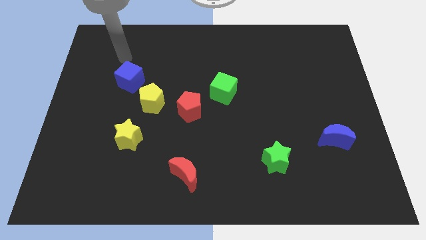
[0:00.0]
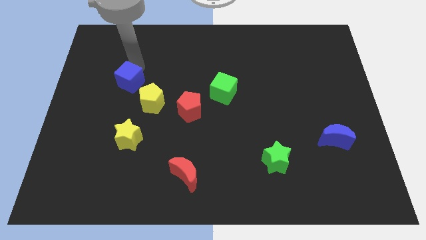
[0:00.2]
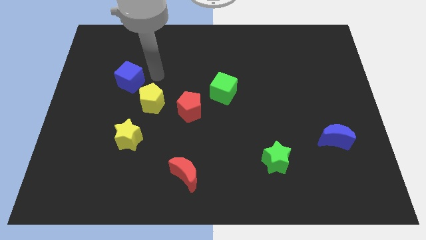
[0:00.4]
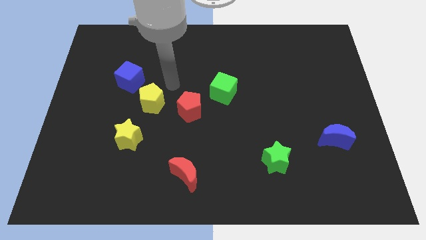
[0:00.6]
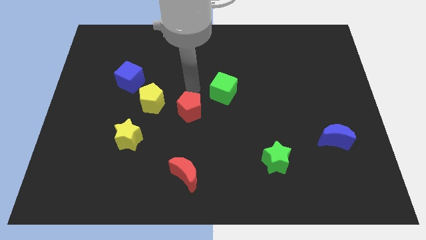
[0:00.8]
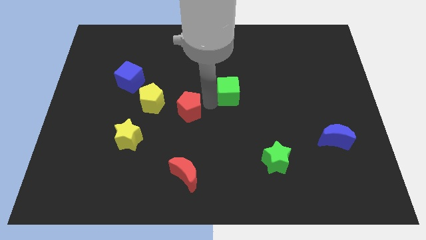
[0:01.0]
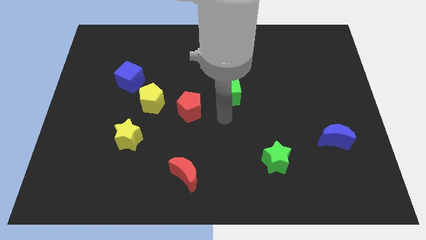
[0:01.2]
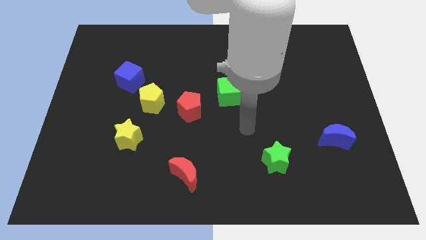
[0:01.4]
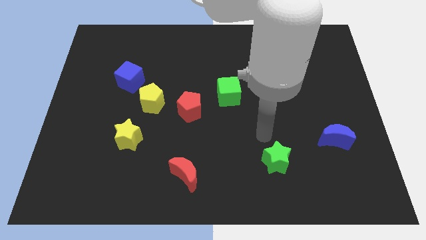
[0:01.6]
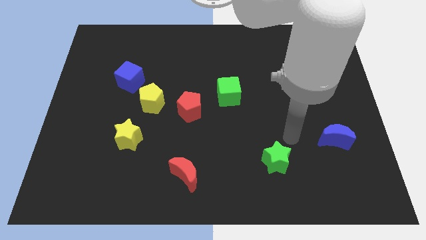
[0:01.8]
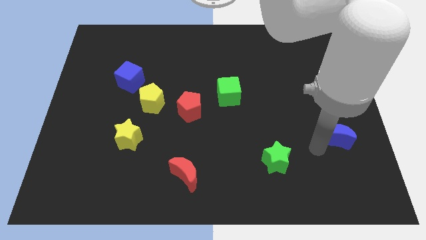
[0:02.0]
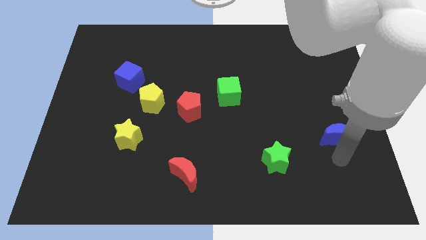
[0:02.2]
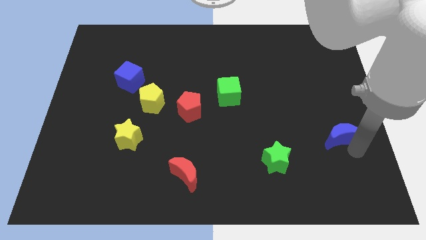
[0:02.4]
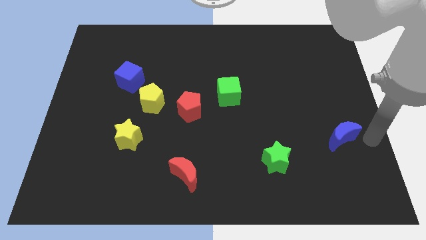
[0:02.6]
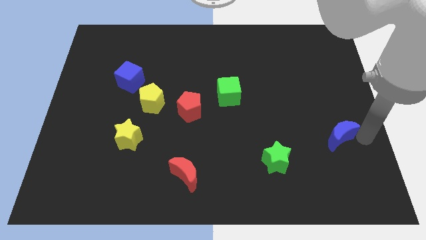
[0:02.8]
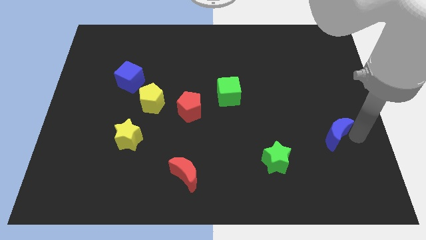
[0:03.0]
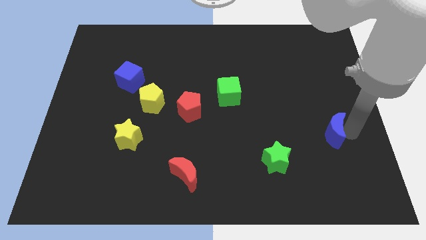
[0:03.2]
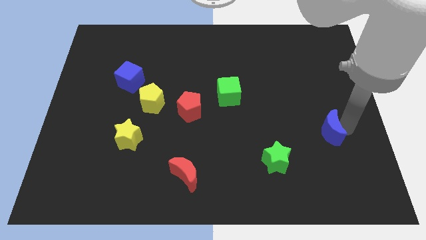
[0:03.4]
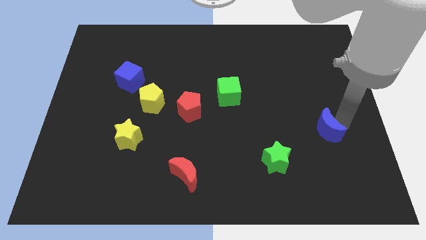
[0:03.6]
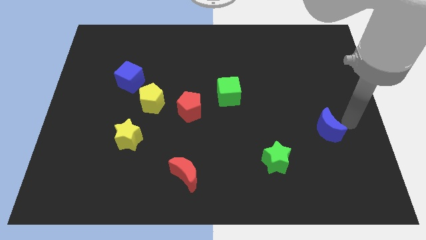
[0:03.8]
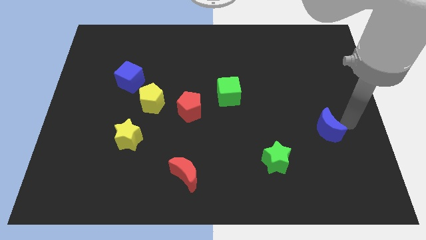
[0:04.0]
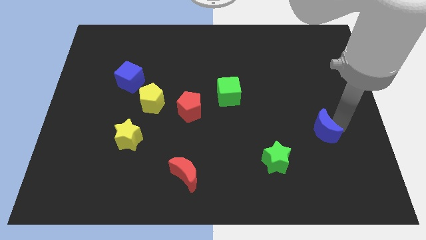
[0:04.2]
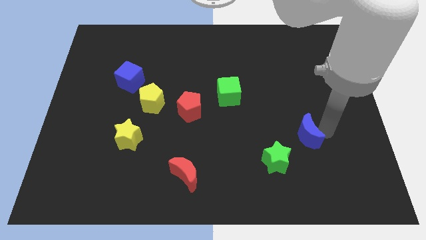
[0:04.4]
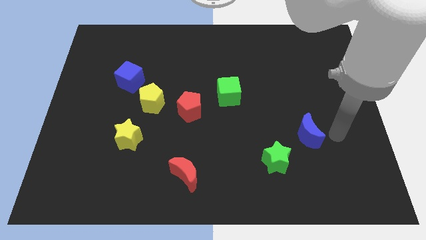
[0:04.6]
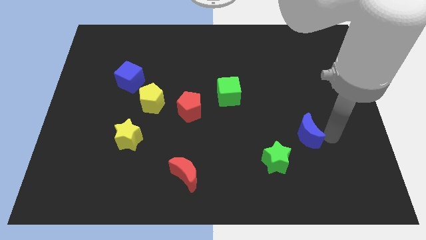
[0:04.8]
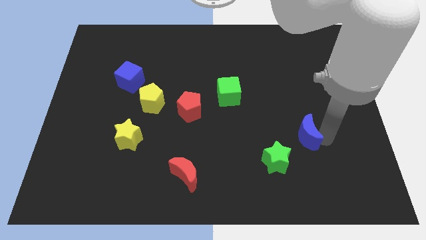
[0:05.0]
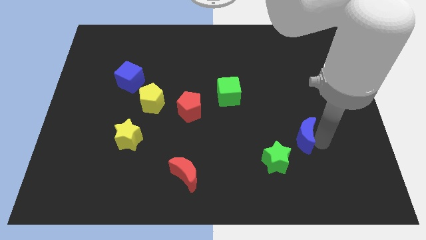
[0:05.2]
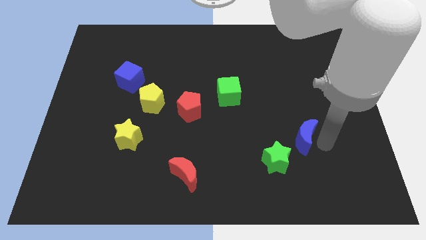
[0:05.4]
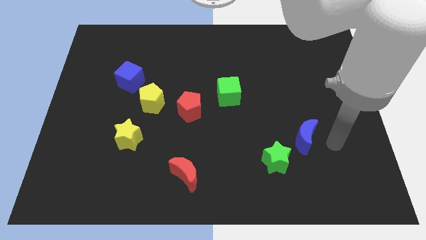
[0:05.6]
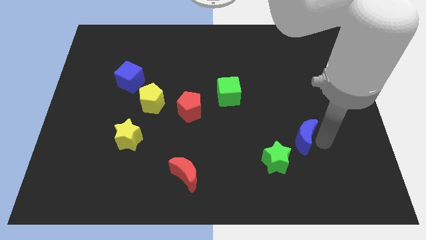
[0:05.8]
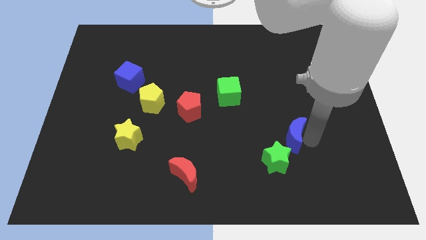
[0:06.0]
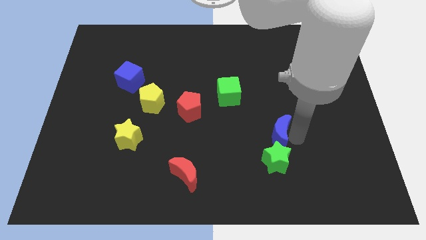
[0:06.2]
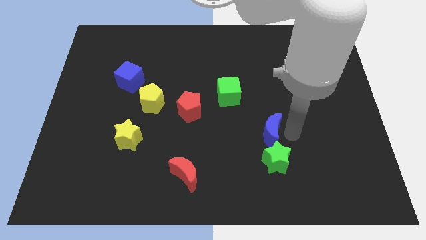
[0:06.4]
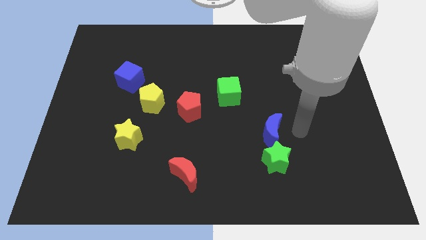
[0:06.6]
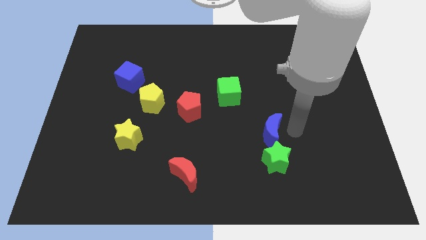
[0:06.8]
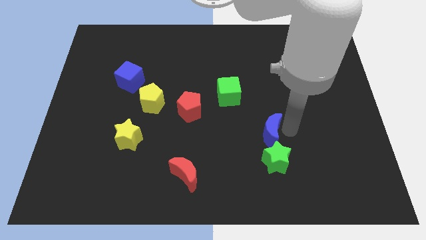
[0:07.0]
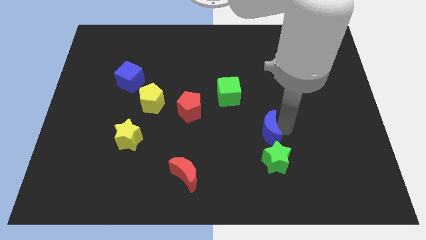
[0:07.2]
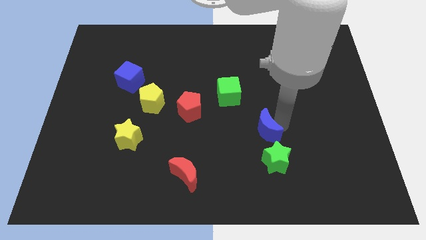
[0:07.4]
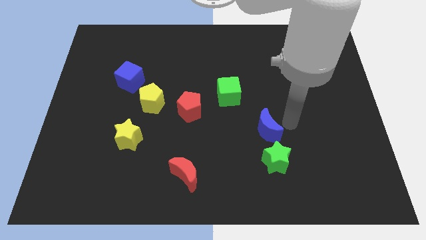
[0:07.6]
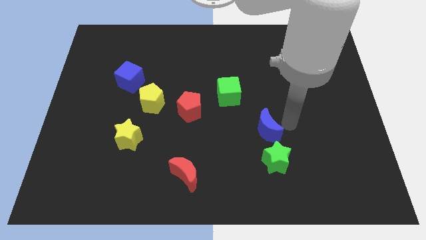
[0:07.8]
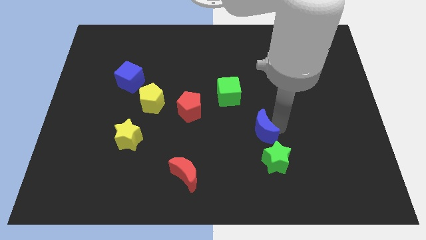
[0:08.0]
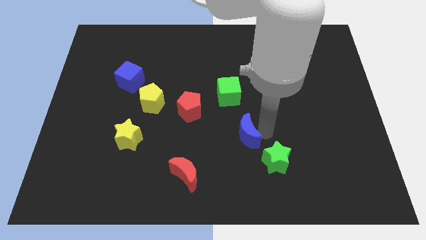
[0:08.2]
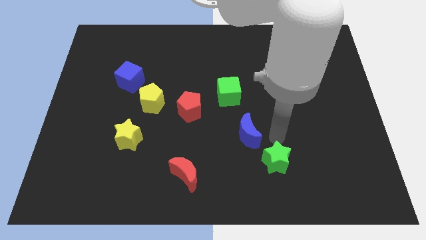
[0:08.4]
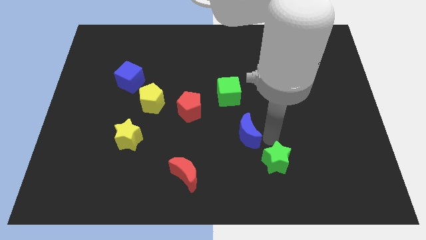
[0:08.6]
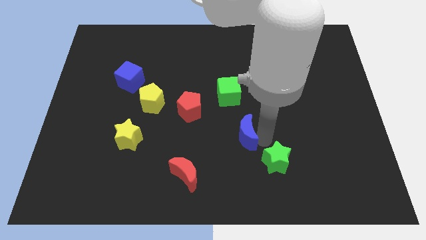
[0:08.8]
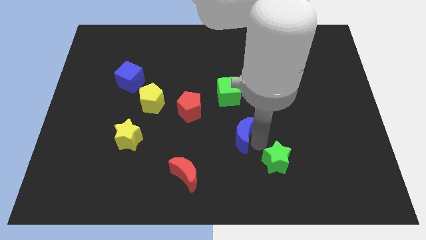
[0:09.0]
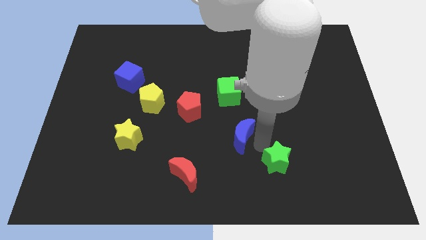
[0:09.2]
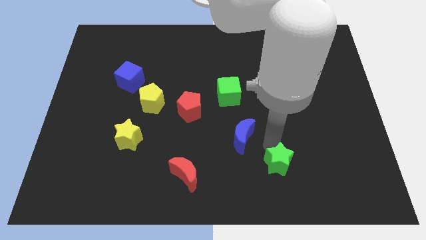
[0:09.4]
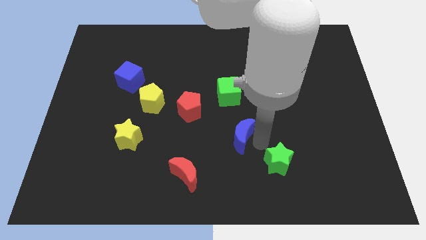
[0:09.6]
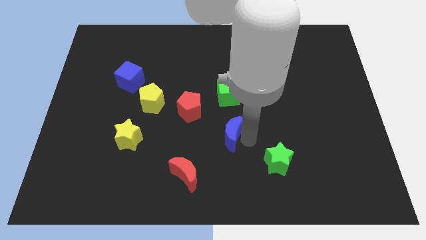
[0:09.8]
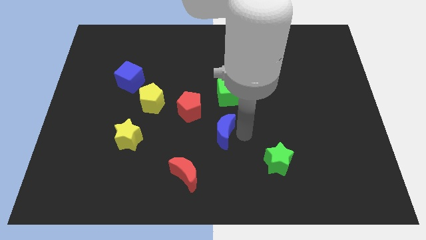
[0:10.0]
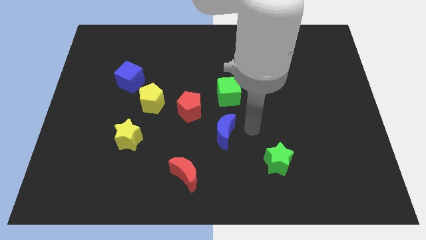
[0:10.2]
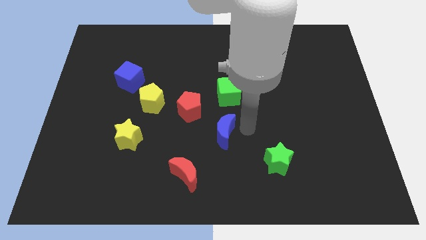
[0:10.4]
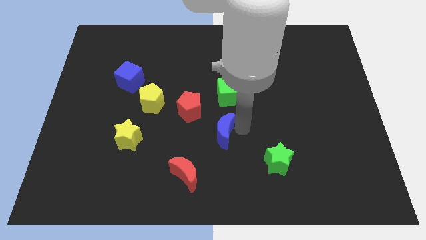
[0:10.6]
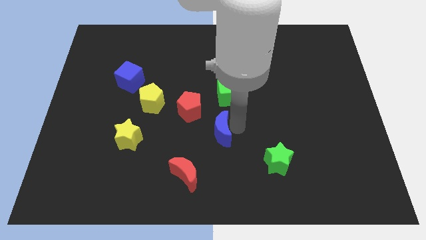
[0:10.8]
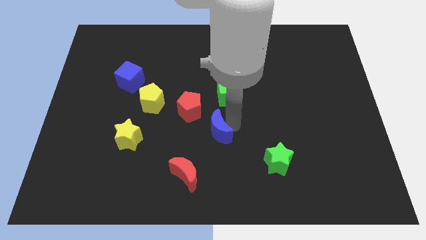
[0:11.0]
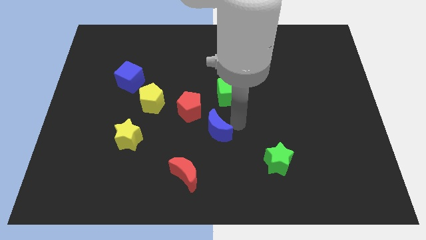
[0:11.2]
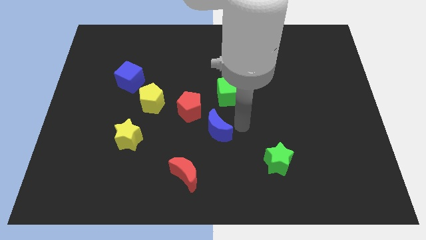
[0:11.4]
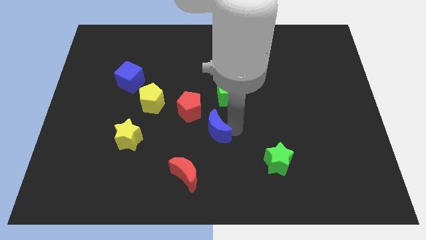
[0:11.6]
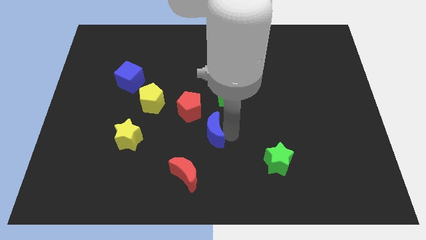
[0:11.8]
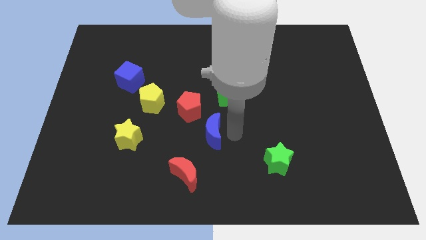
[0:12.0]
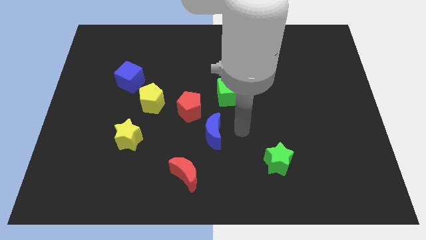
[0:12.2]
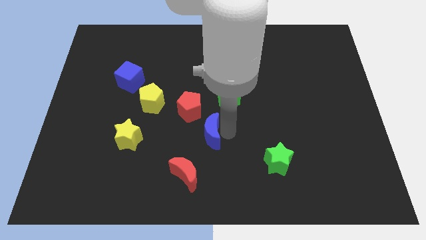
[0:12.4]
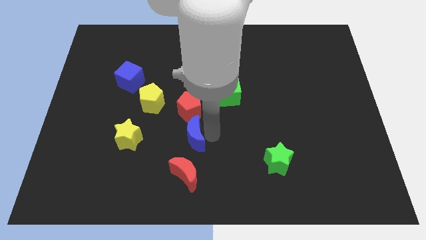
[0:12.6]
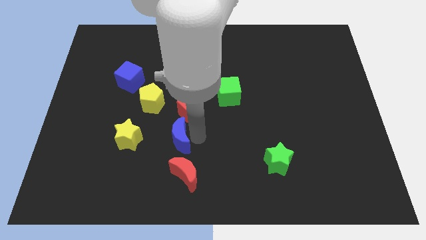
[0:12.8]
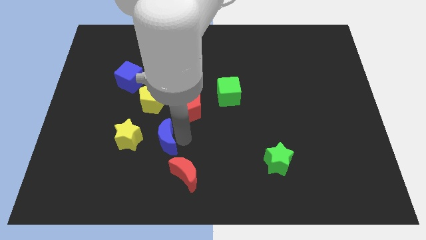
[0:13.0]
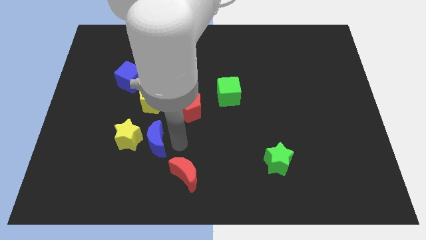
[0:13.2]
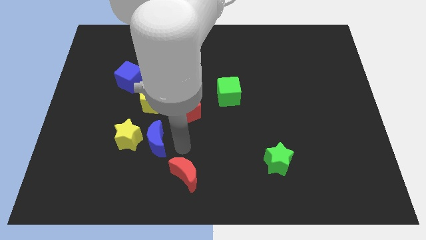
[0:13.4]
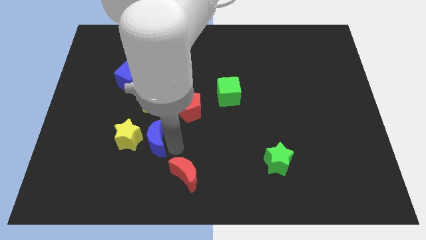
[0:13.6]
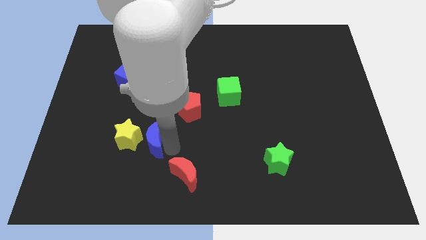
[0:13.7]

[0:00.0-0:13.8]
move the blue moon to the yellow star

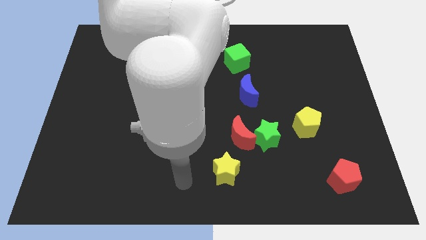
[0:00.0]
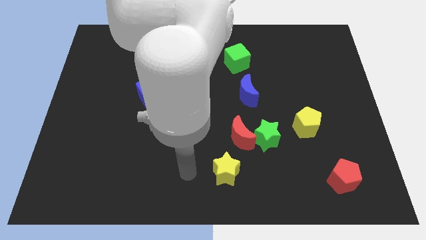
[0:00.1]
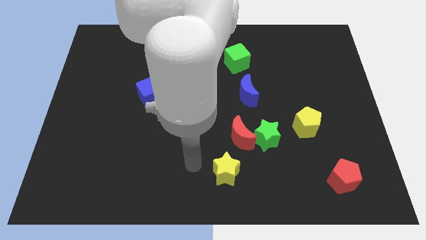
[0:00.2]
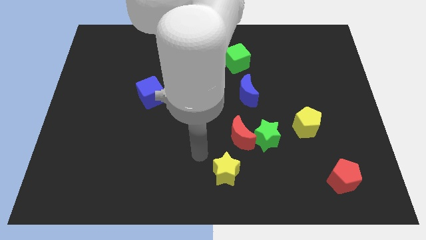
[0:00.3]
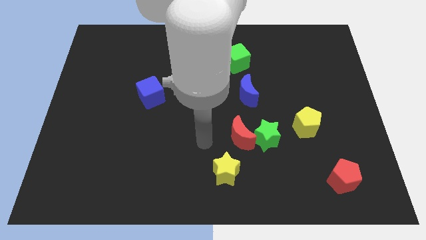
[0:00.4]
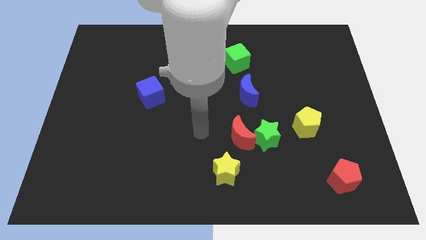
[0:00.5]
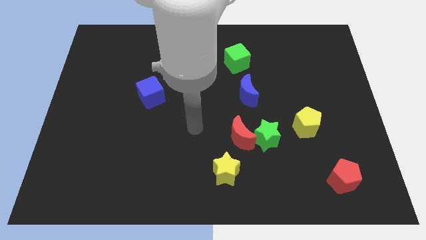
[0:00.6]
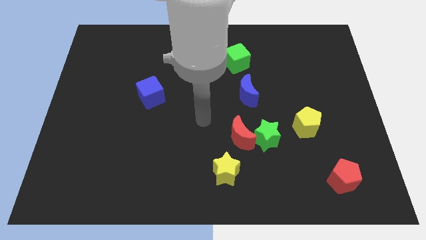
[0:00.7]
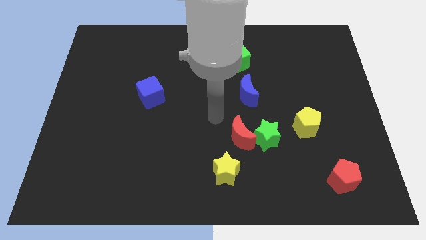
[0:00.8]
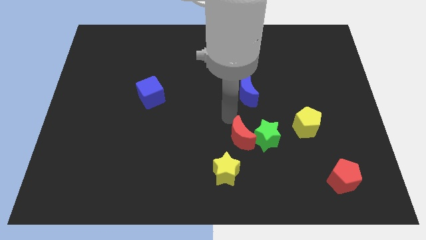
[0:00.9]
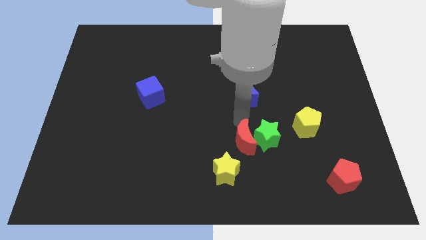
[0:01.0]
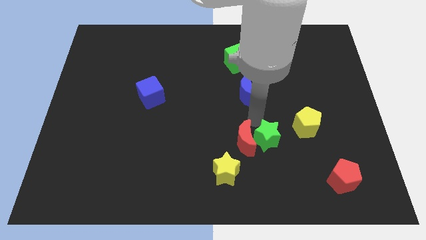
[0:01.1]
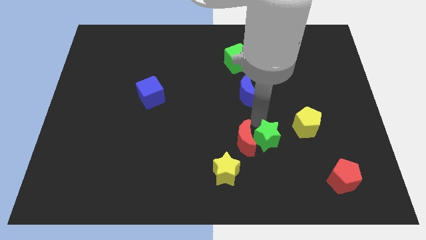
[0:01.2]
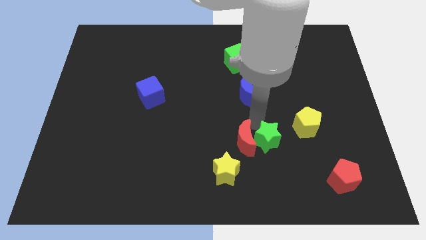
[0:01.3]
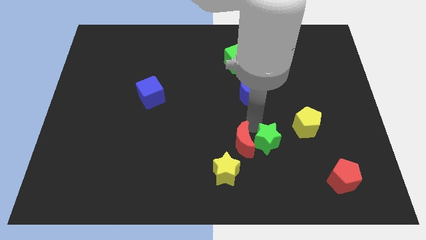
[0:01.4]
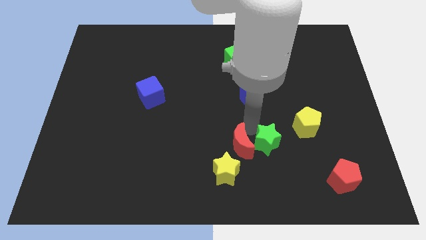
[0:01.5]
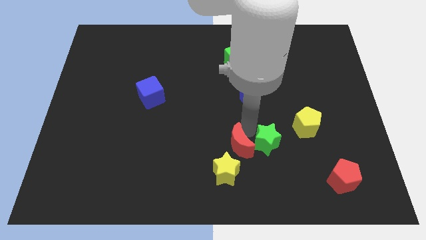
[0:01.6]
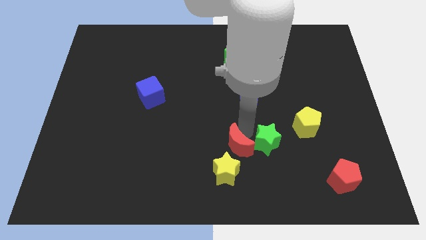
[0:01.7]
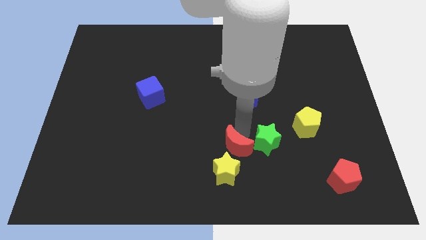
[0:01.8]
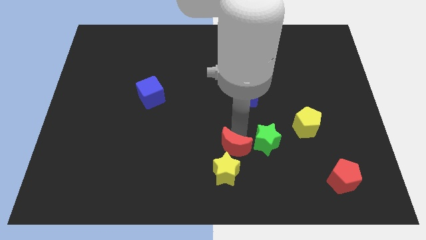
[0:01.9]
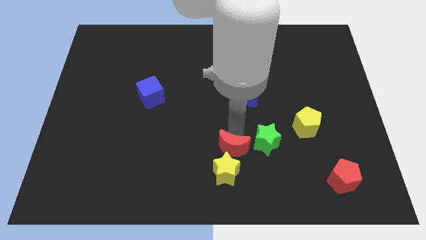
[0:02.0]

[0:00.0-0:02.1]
slide the red moon to the yellow star
